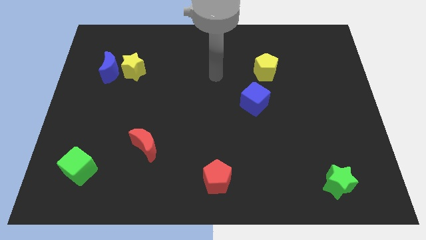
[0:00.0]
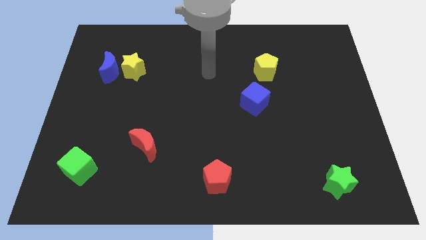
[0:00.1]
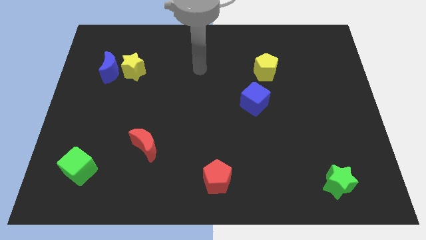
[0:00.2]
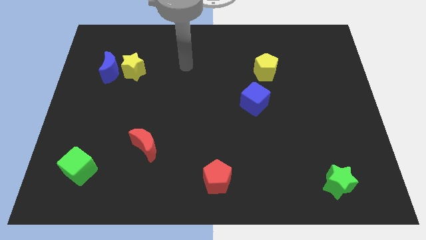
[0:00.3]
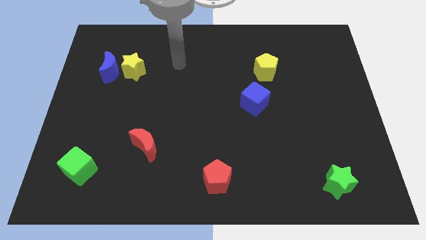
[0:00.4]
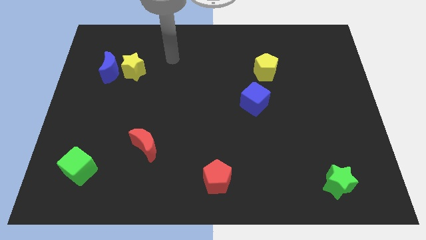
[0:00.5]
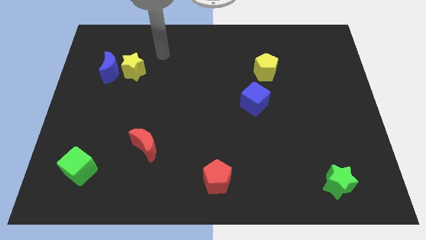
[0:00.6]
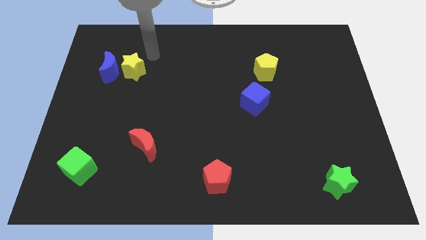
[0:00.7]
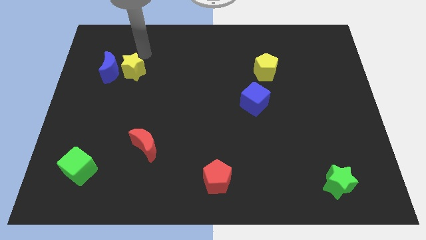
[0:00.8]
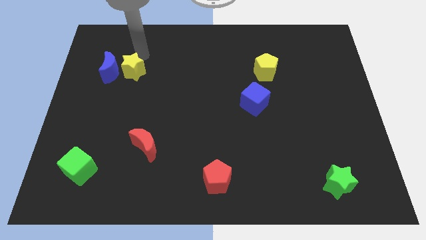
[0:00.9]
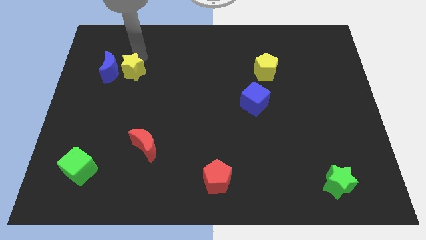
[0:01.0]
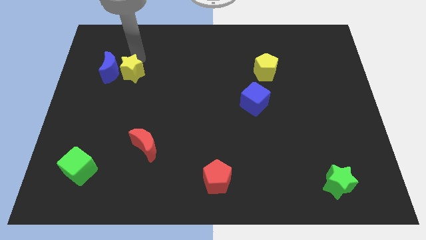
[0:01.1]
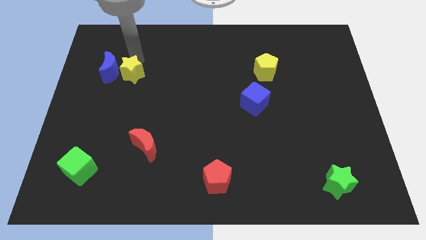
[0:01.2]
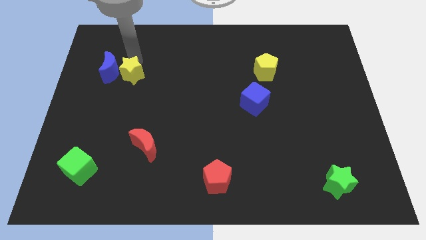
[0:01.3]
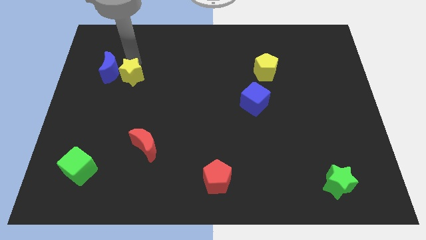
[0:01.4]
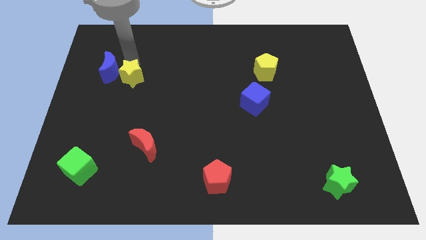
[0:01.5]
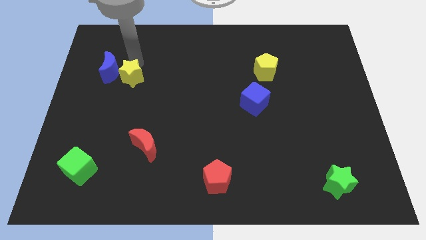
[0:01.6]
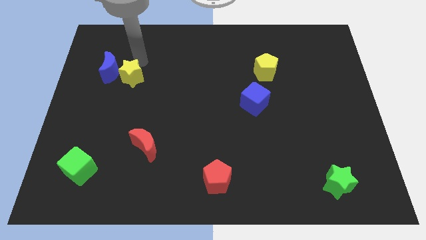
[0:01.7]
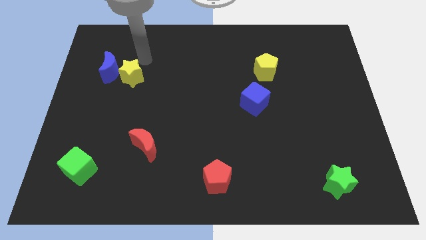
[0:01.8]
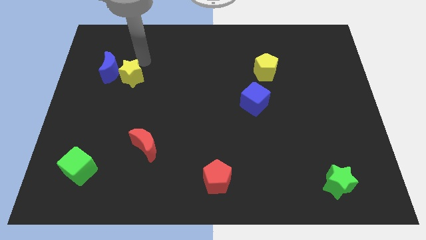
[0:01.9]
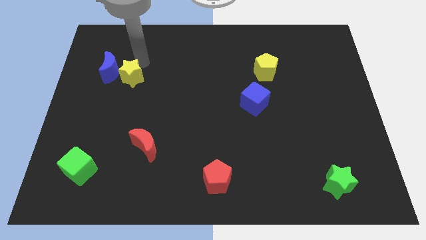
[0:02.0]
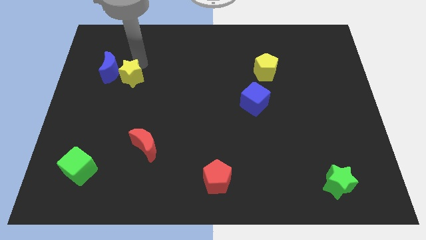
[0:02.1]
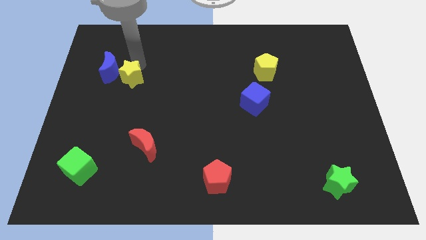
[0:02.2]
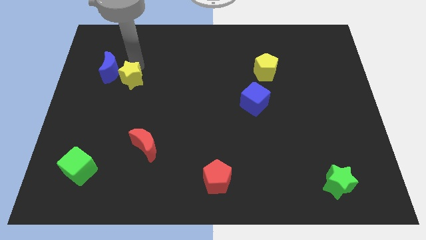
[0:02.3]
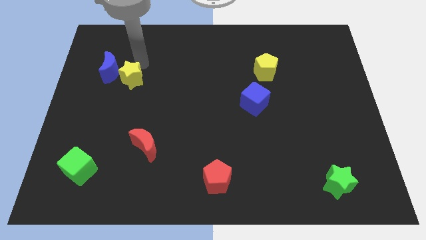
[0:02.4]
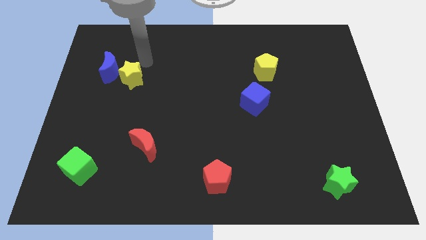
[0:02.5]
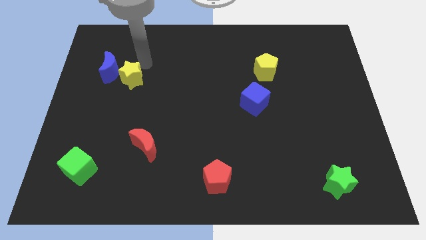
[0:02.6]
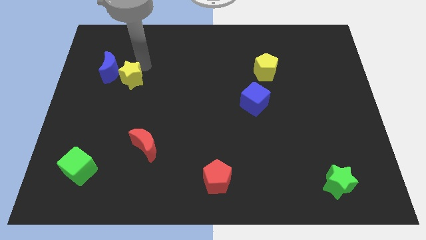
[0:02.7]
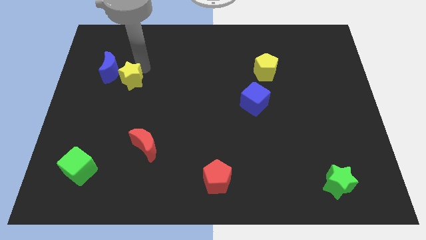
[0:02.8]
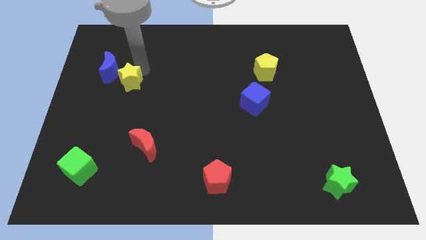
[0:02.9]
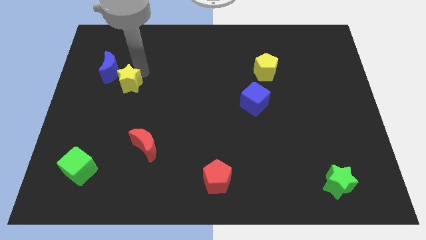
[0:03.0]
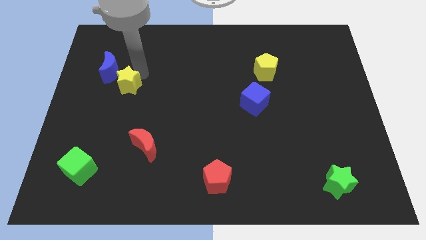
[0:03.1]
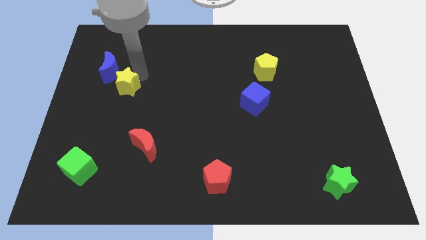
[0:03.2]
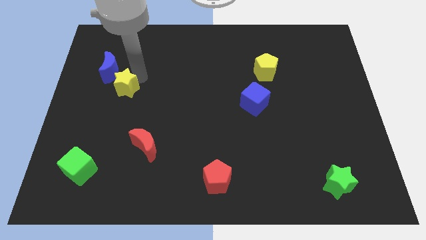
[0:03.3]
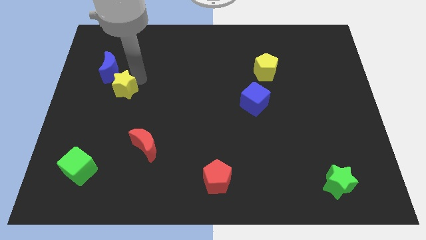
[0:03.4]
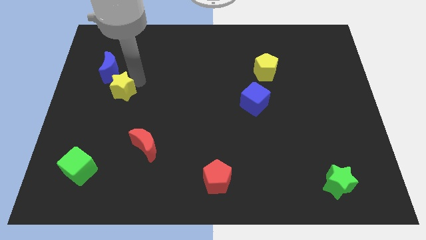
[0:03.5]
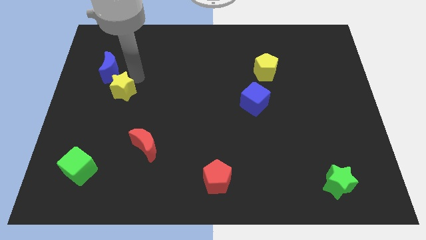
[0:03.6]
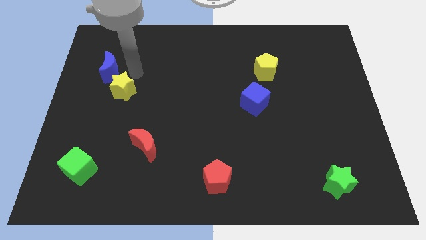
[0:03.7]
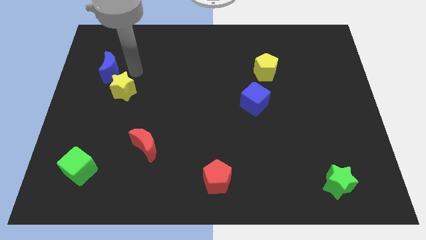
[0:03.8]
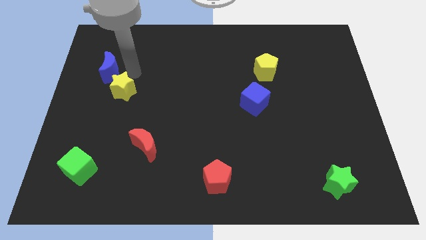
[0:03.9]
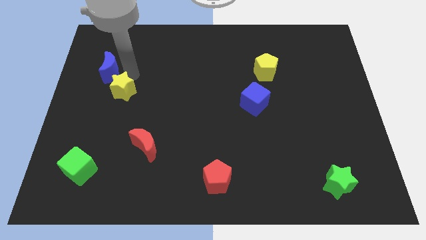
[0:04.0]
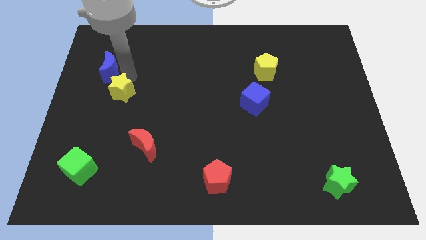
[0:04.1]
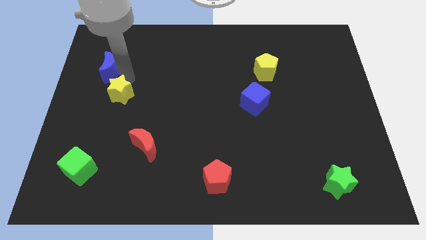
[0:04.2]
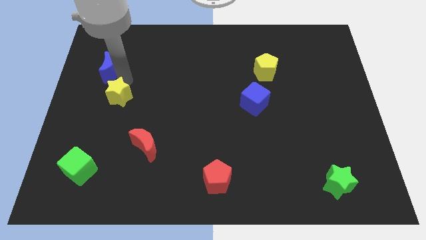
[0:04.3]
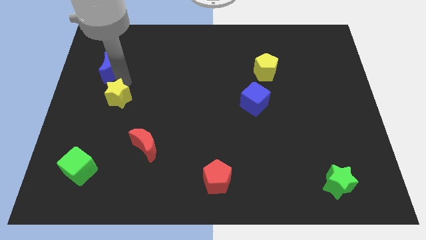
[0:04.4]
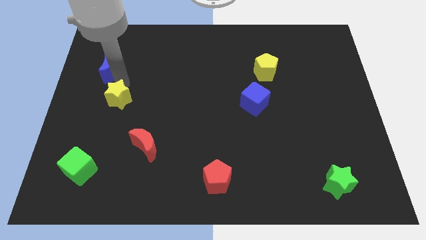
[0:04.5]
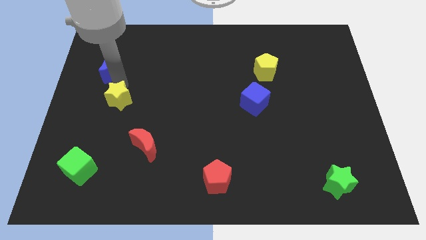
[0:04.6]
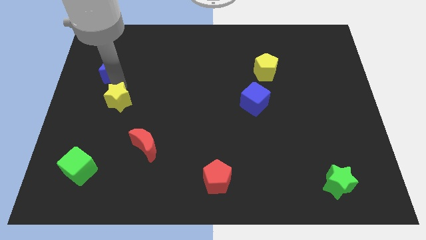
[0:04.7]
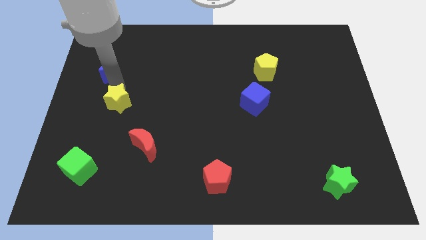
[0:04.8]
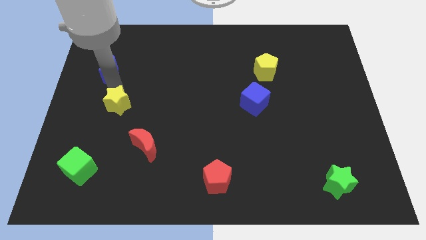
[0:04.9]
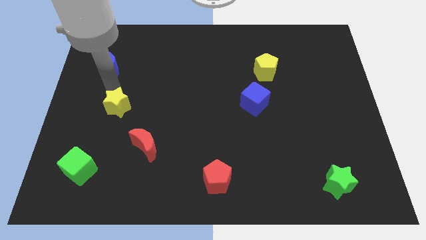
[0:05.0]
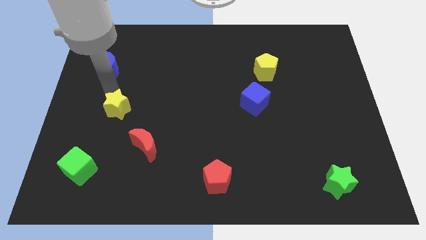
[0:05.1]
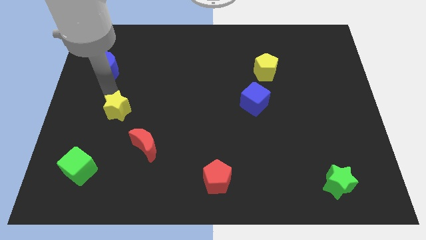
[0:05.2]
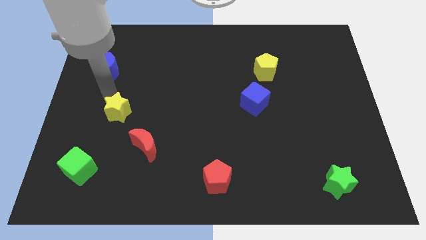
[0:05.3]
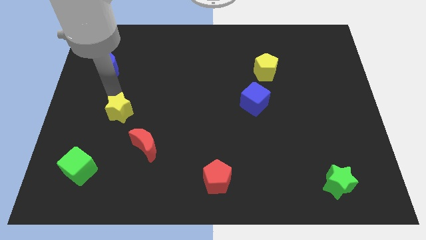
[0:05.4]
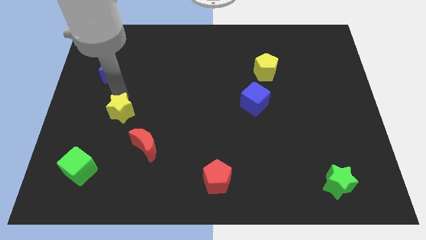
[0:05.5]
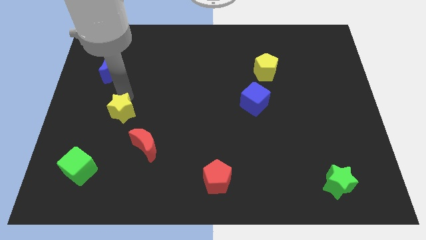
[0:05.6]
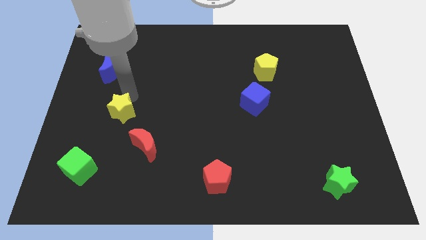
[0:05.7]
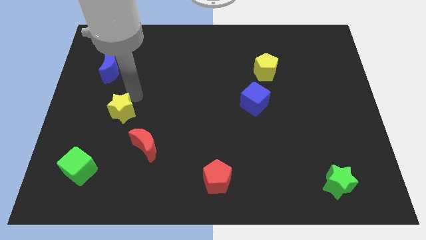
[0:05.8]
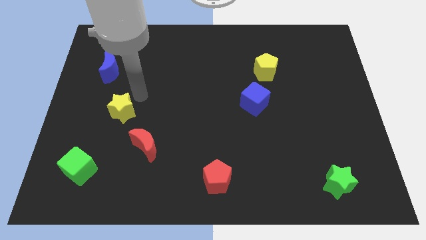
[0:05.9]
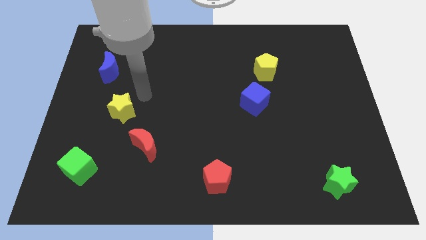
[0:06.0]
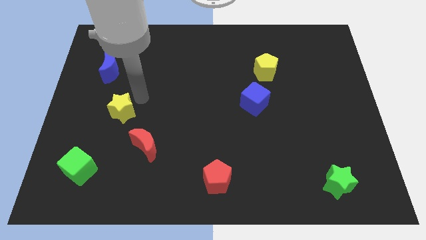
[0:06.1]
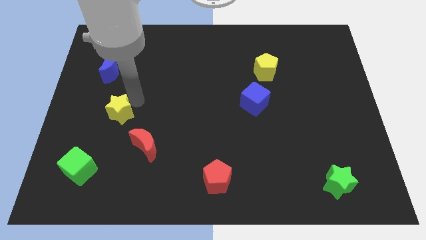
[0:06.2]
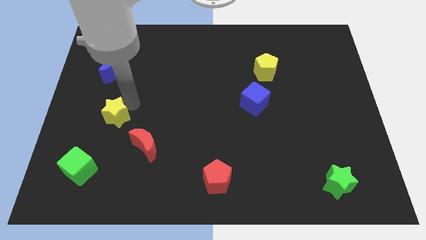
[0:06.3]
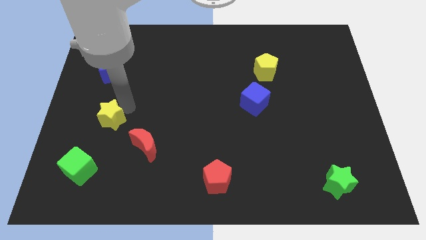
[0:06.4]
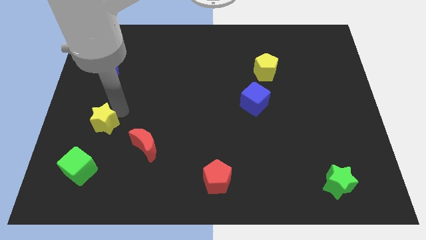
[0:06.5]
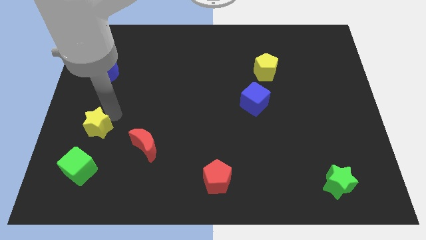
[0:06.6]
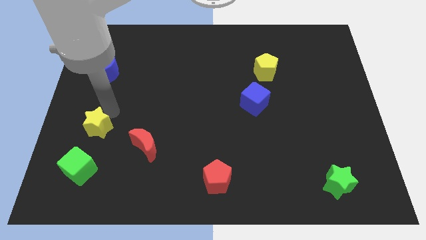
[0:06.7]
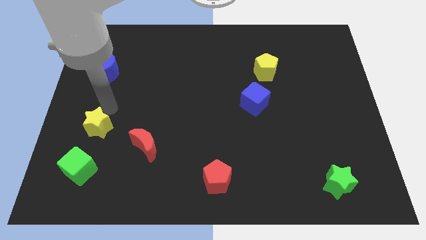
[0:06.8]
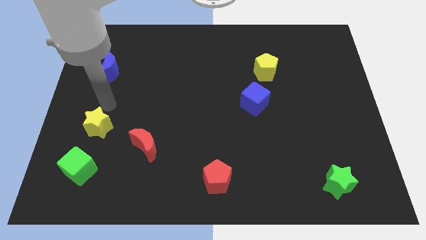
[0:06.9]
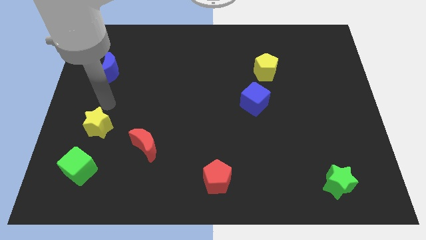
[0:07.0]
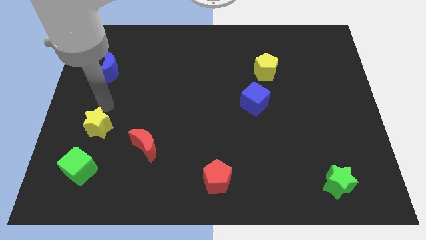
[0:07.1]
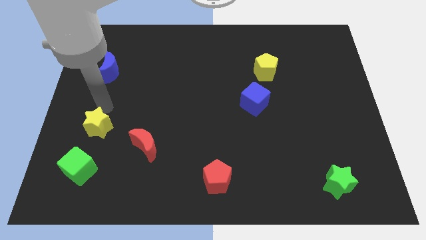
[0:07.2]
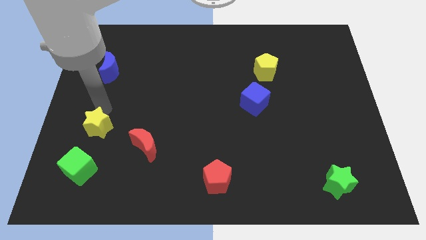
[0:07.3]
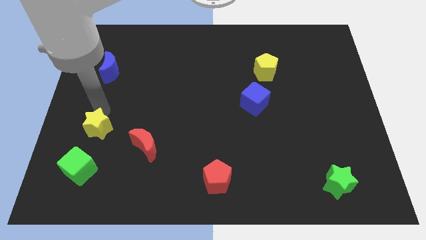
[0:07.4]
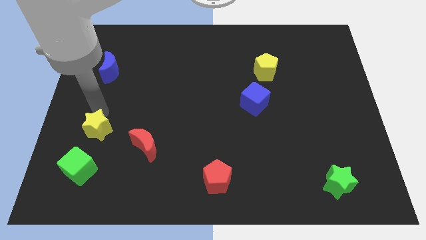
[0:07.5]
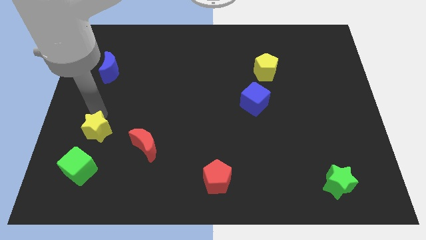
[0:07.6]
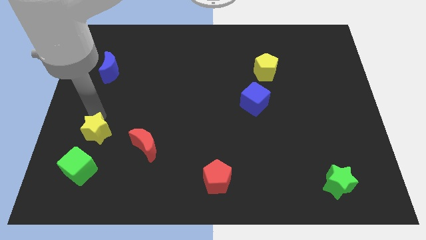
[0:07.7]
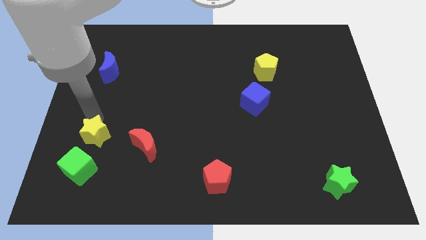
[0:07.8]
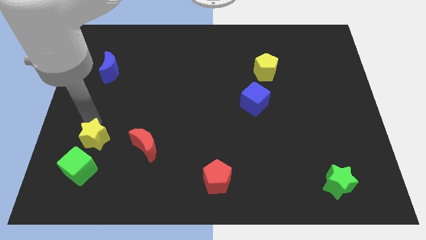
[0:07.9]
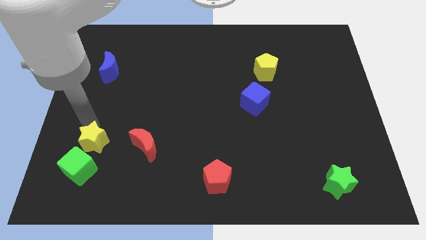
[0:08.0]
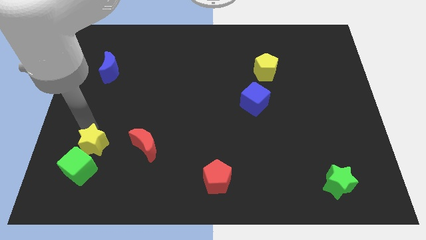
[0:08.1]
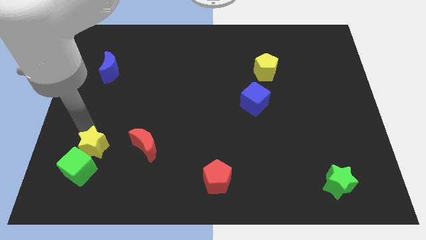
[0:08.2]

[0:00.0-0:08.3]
move the yellow star next to the green cube
